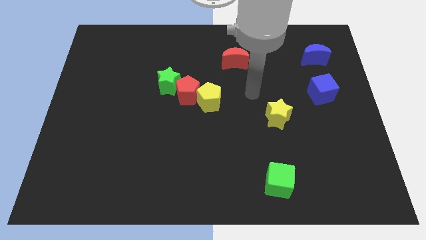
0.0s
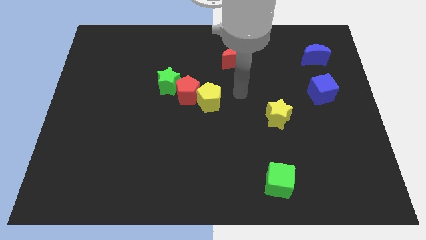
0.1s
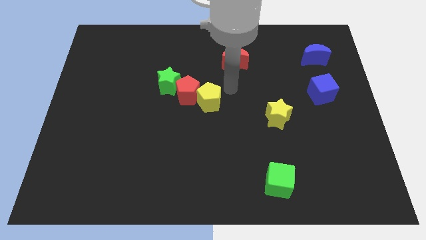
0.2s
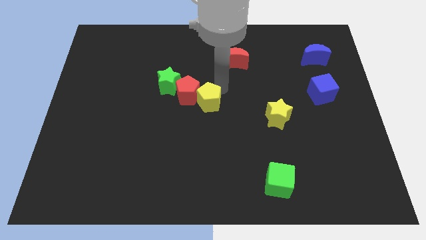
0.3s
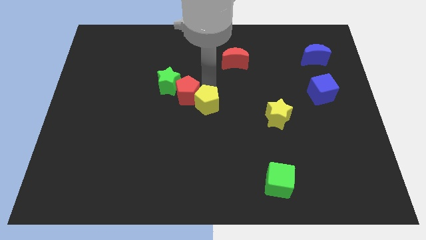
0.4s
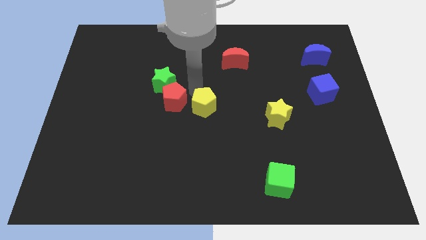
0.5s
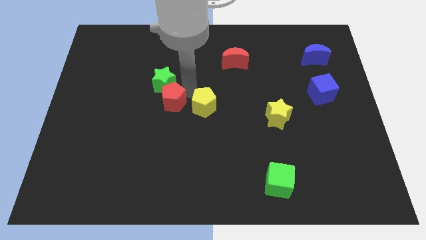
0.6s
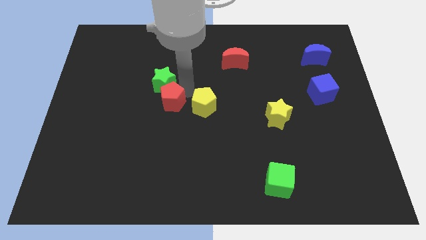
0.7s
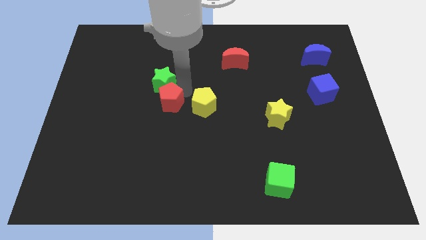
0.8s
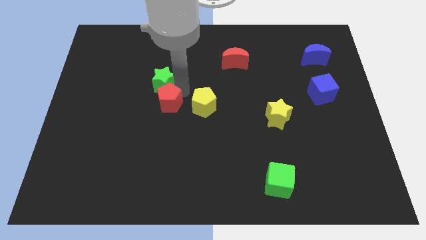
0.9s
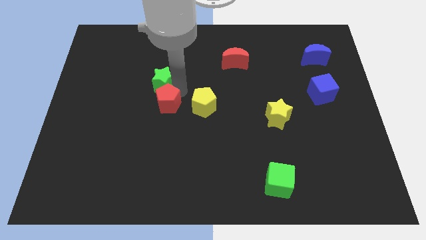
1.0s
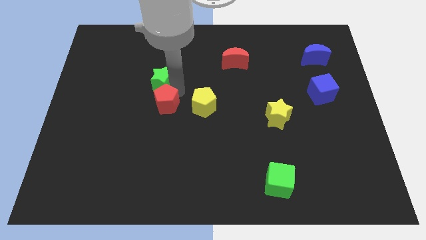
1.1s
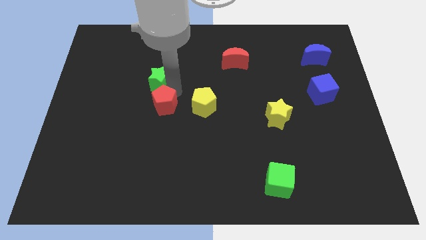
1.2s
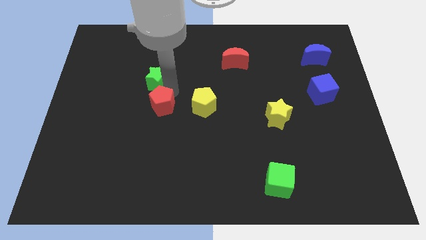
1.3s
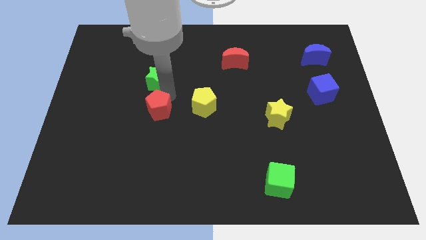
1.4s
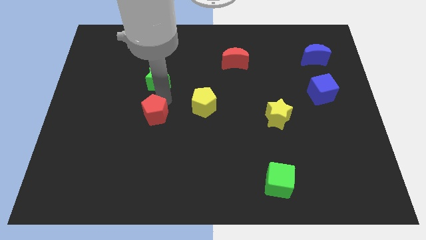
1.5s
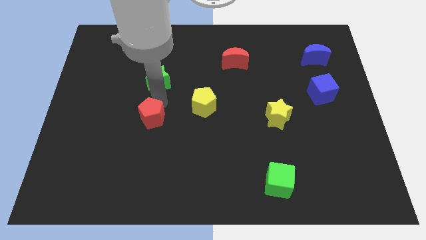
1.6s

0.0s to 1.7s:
pull the green star apart from the red pentagon

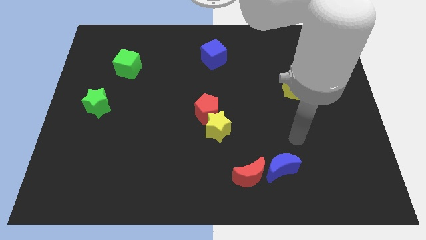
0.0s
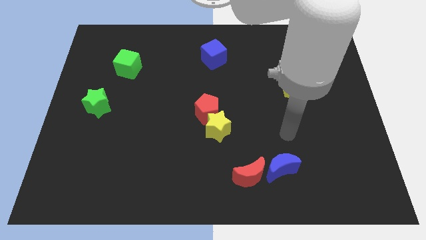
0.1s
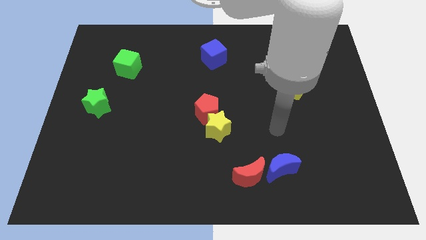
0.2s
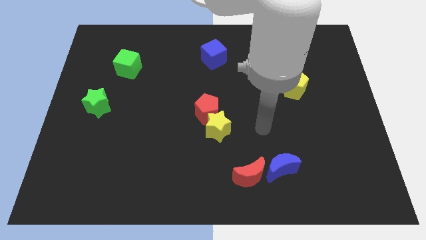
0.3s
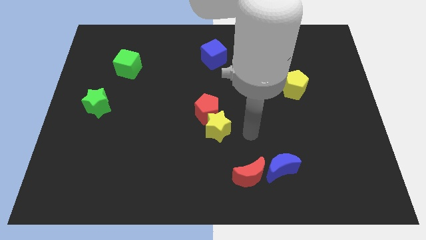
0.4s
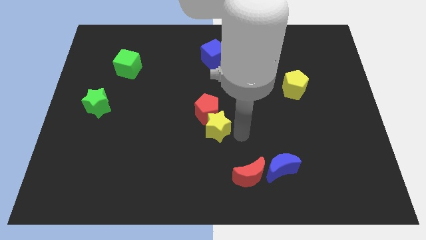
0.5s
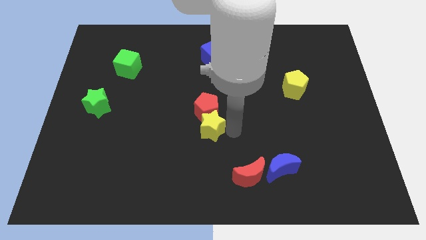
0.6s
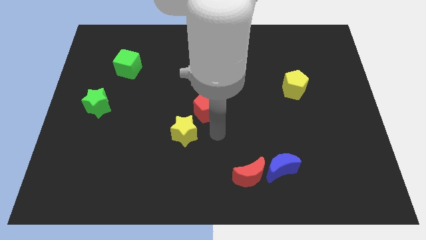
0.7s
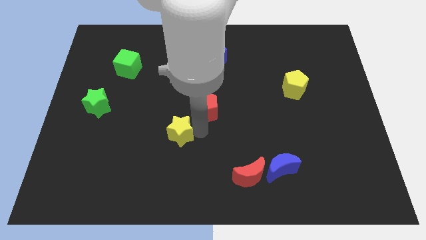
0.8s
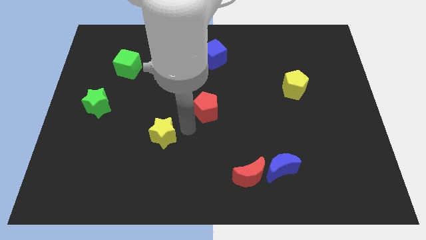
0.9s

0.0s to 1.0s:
move the red pentagon away from the yellow star

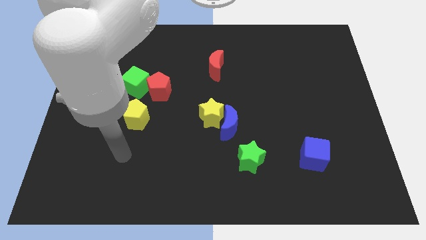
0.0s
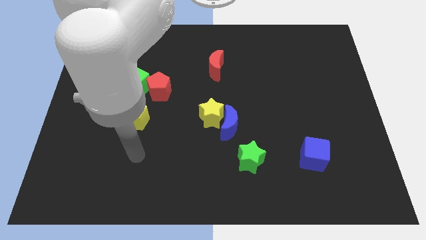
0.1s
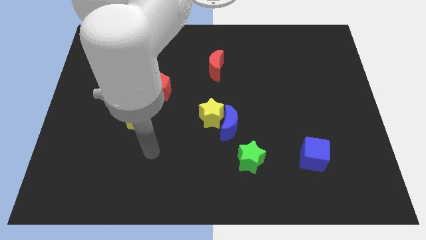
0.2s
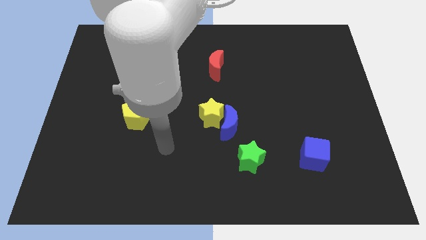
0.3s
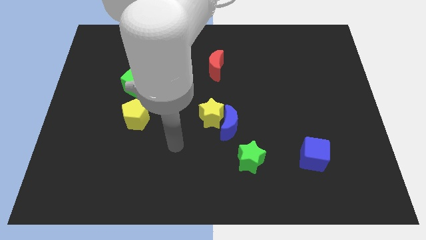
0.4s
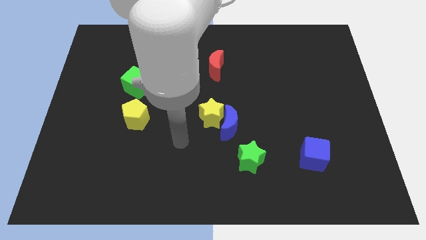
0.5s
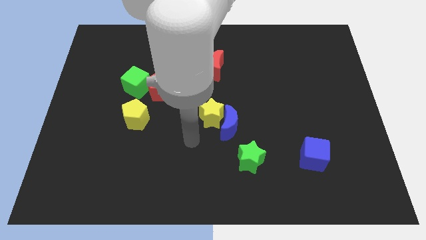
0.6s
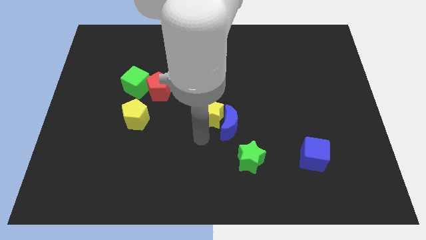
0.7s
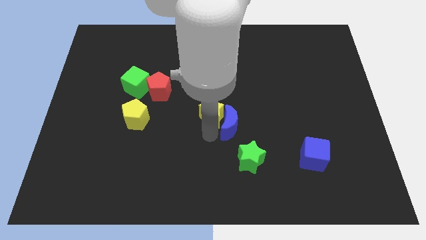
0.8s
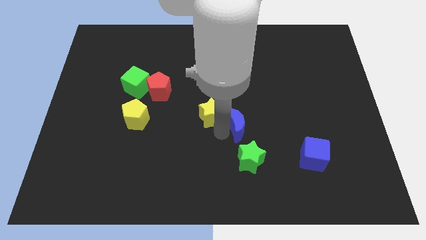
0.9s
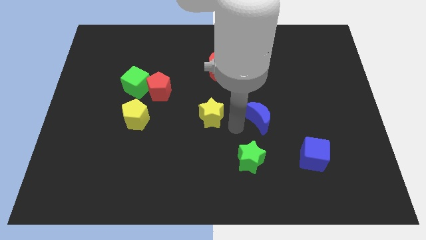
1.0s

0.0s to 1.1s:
pull the yellow star apart from the blue moon

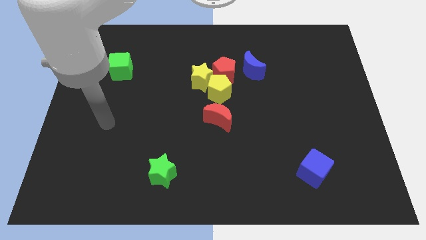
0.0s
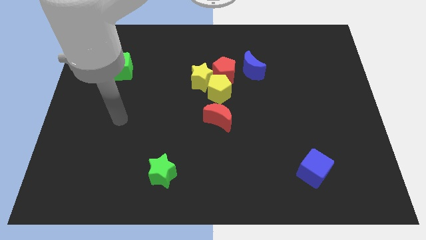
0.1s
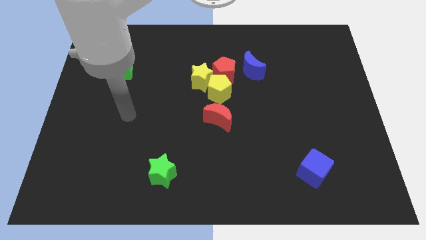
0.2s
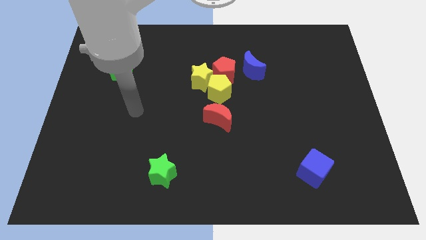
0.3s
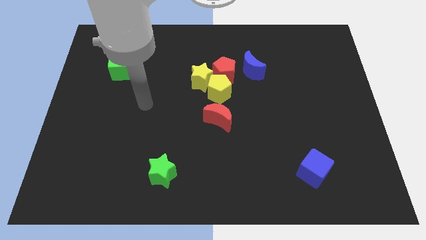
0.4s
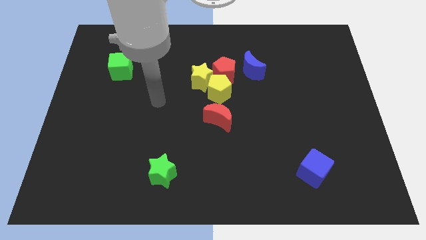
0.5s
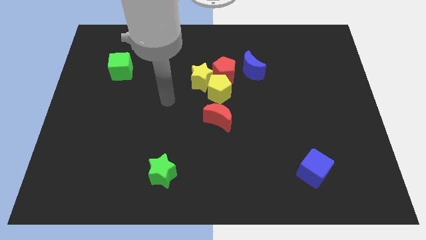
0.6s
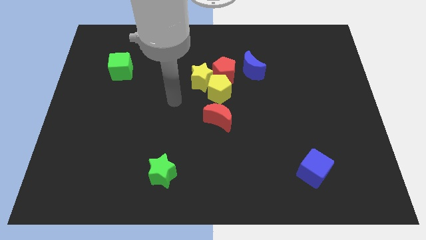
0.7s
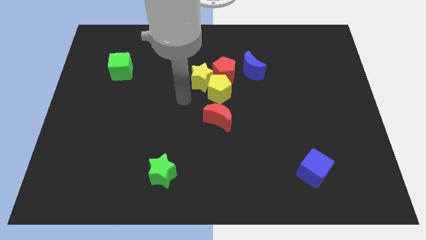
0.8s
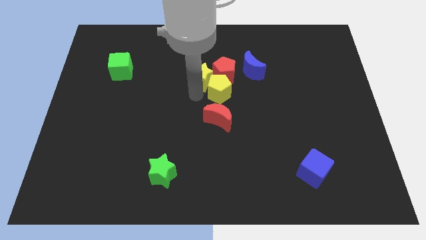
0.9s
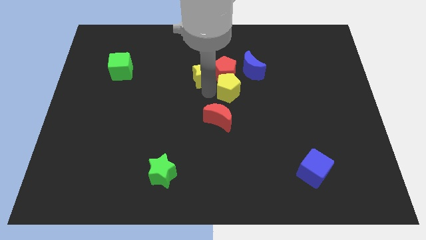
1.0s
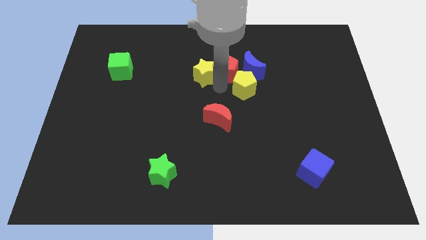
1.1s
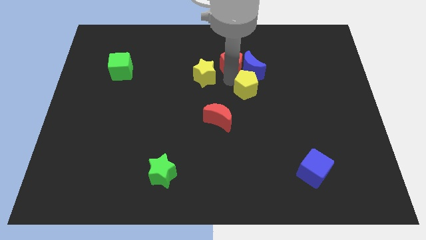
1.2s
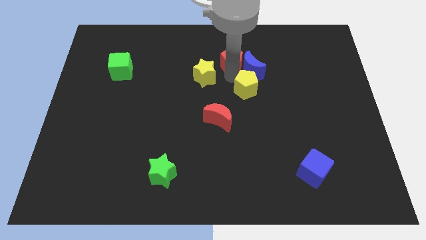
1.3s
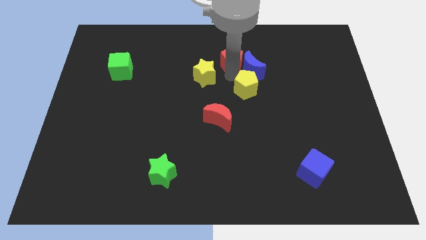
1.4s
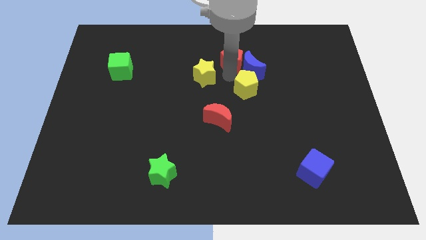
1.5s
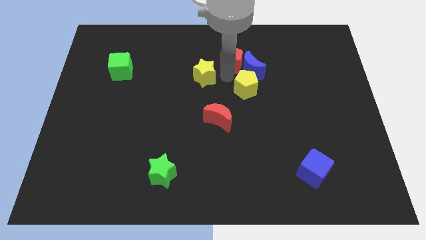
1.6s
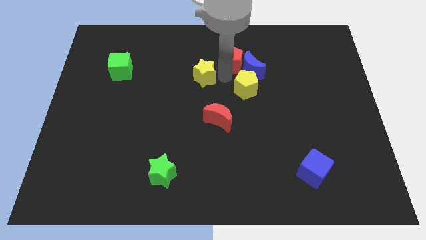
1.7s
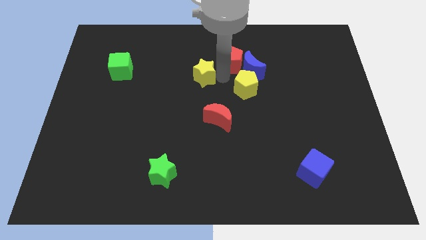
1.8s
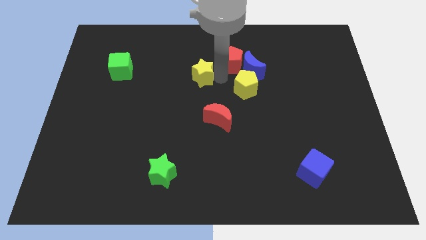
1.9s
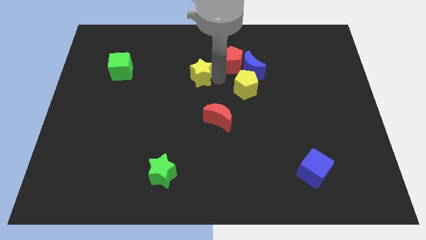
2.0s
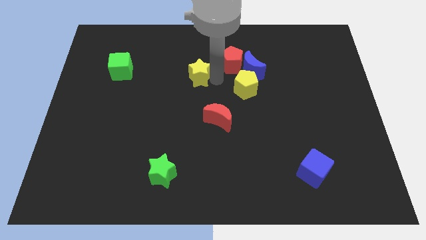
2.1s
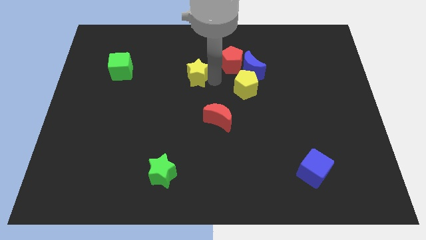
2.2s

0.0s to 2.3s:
pull the yellow star apart from the yellow pentagon and red pentagon

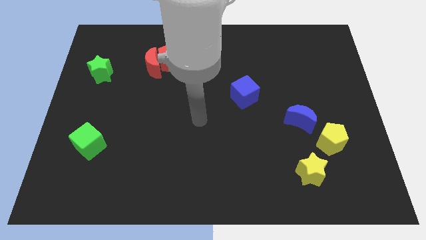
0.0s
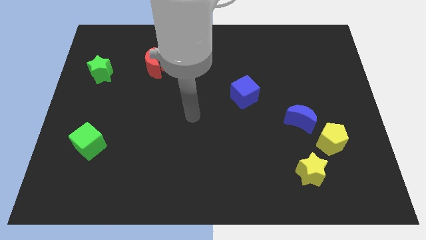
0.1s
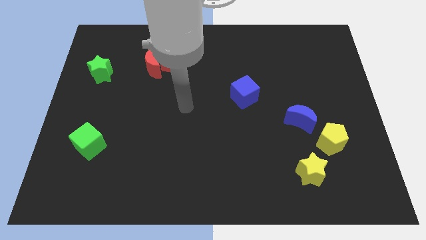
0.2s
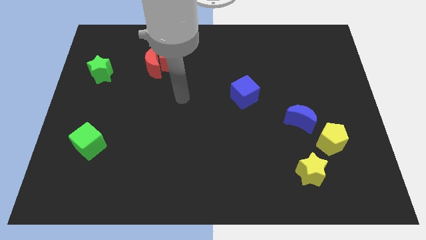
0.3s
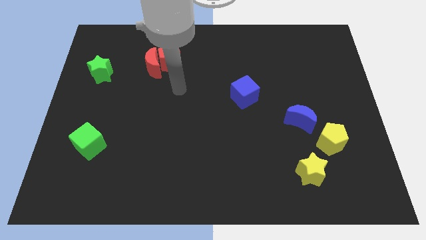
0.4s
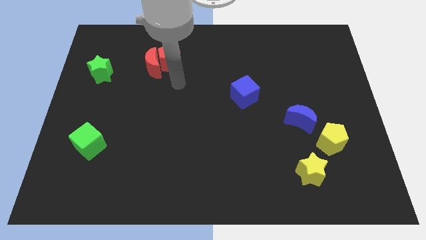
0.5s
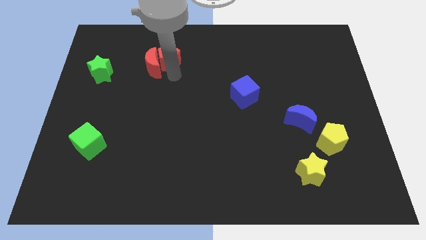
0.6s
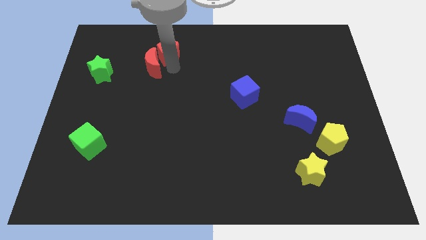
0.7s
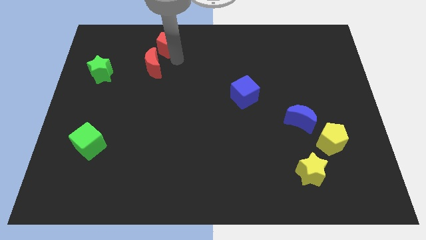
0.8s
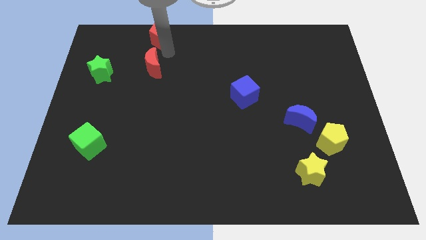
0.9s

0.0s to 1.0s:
move the red moon away from the red pentagon

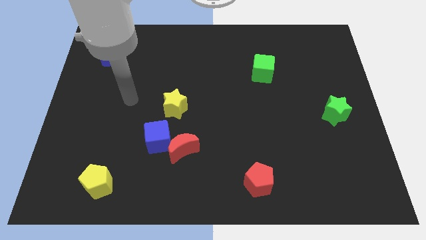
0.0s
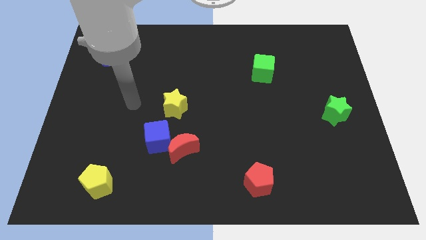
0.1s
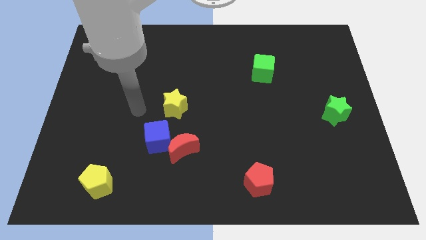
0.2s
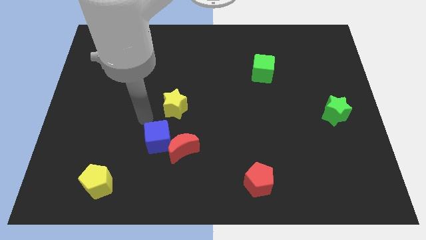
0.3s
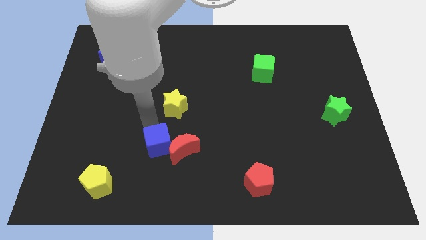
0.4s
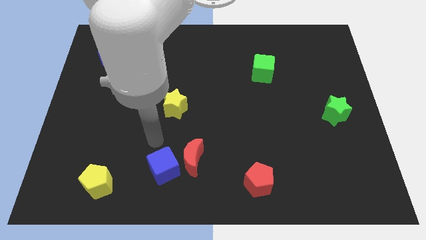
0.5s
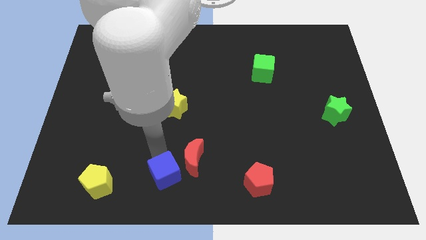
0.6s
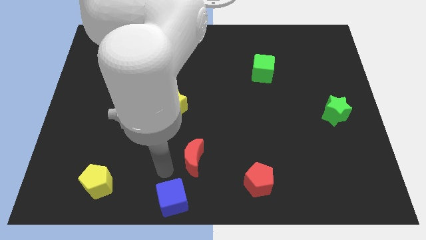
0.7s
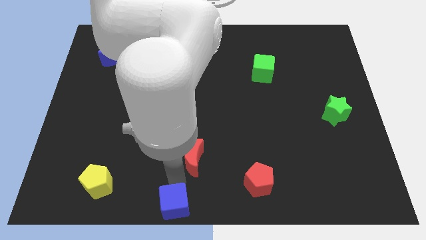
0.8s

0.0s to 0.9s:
separate the red moon from the blue cube

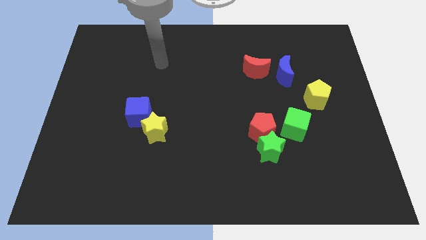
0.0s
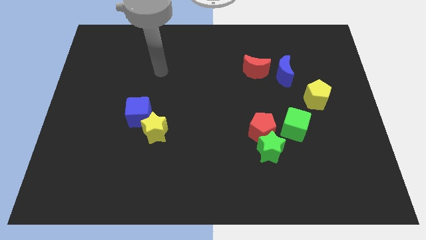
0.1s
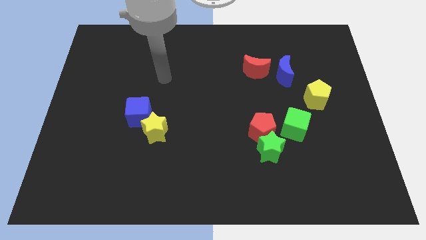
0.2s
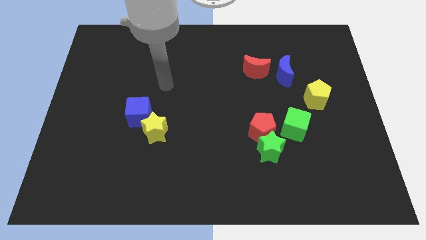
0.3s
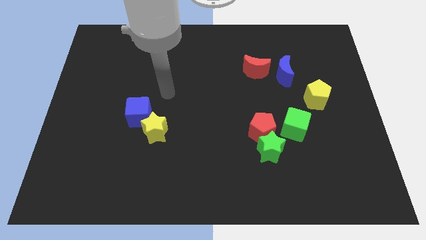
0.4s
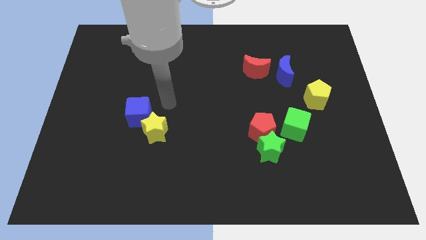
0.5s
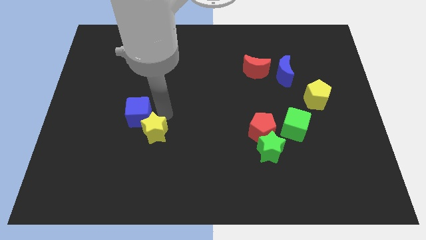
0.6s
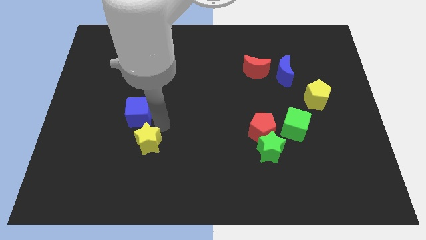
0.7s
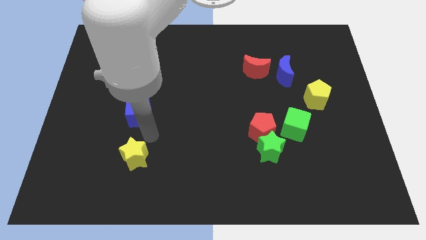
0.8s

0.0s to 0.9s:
pull the blue cube apart from the yellow star

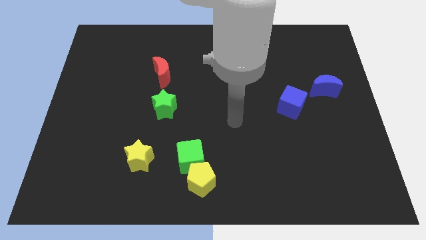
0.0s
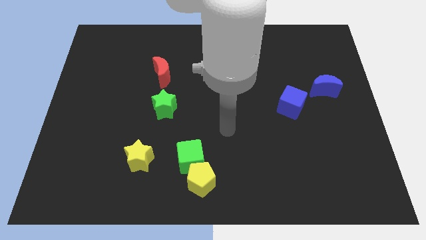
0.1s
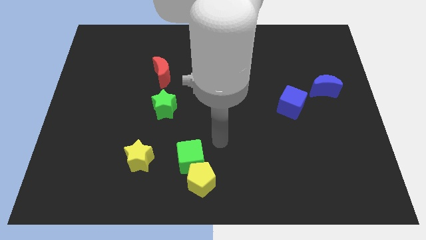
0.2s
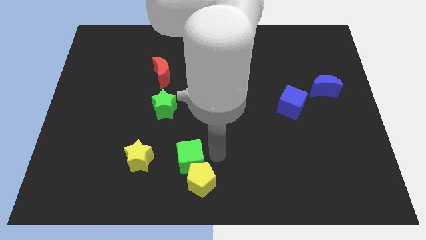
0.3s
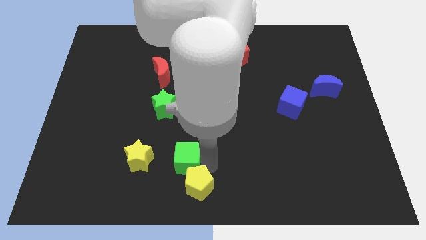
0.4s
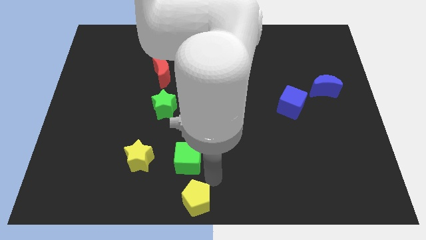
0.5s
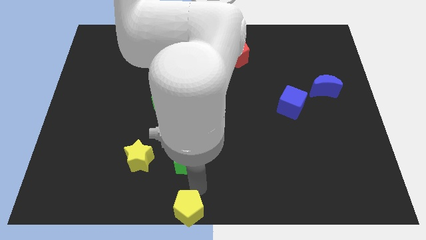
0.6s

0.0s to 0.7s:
pull the green cube apart from the yellow pentagon
